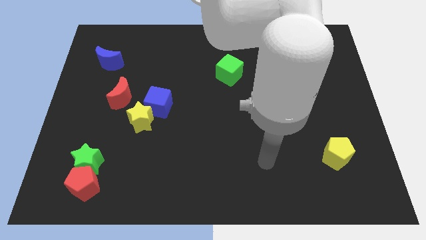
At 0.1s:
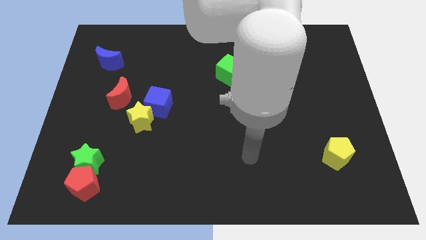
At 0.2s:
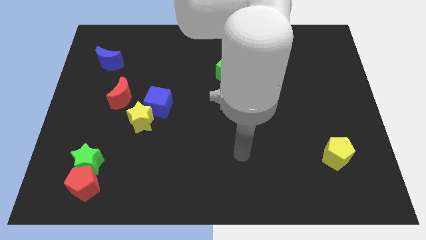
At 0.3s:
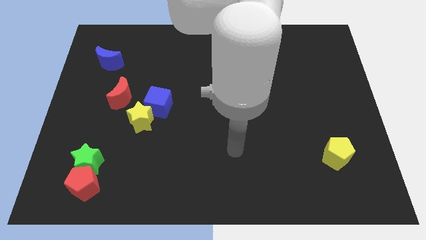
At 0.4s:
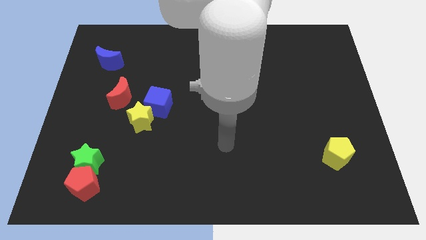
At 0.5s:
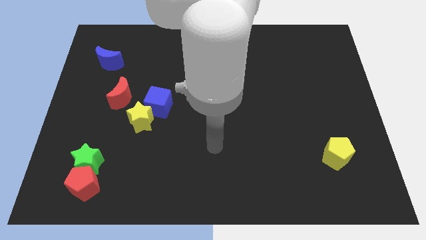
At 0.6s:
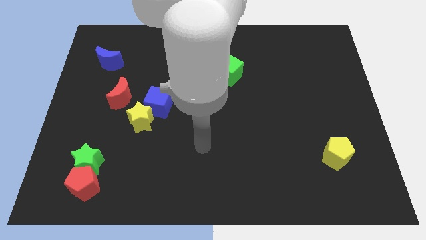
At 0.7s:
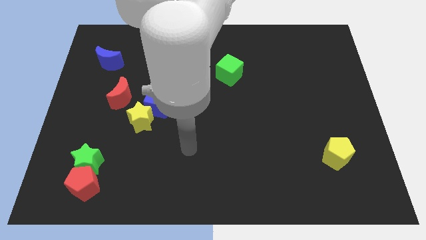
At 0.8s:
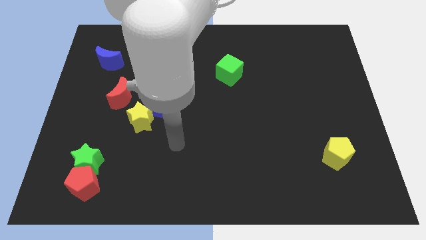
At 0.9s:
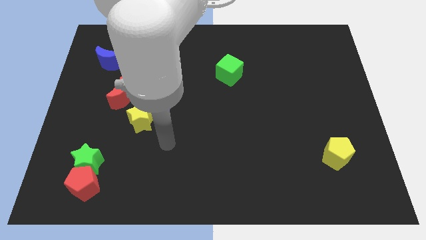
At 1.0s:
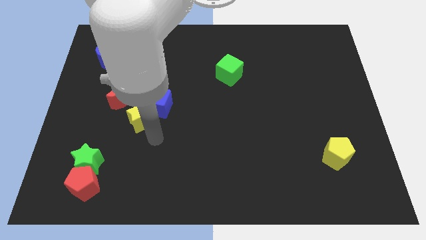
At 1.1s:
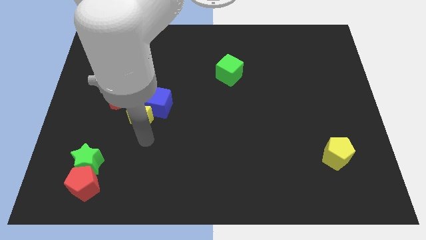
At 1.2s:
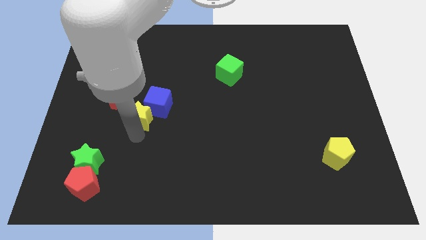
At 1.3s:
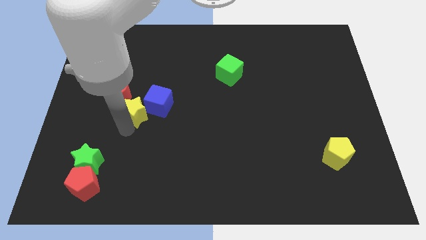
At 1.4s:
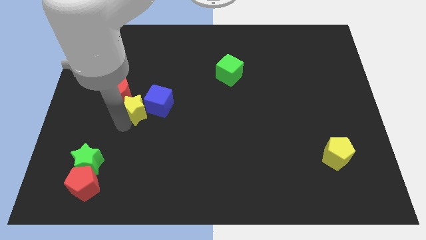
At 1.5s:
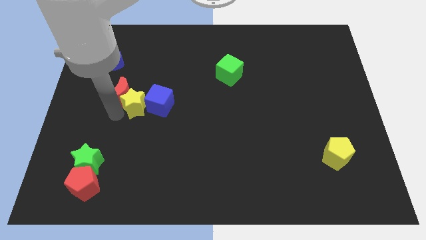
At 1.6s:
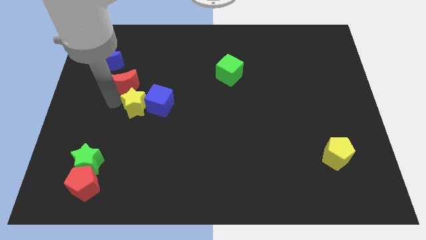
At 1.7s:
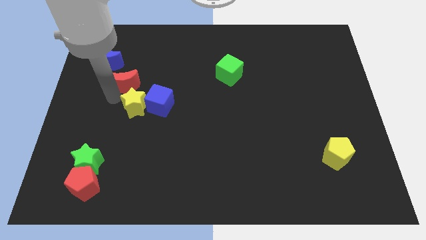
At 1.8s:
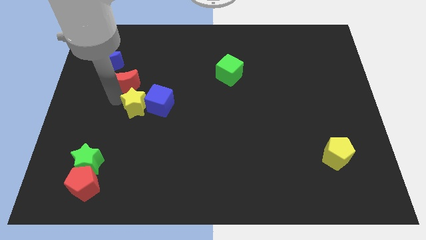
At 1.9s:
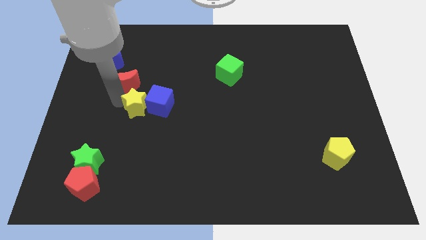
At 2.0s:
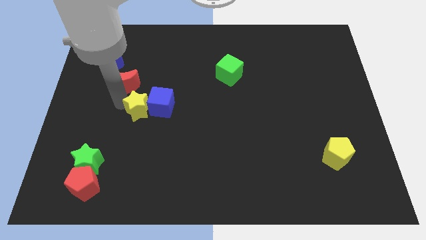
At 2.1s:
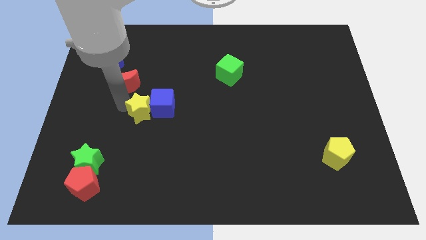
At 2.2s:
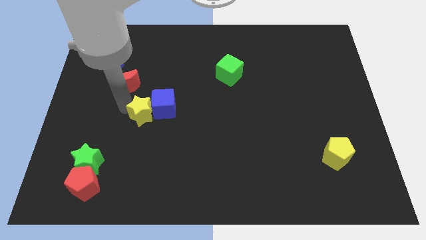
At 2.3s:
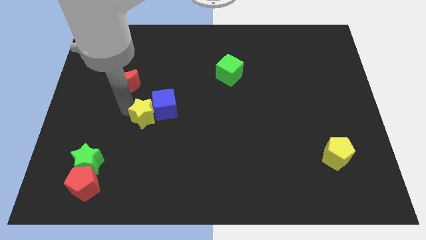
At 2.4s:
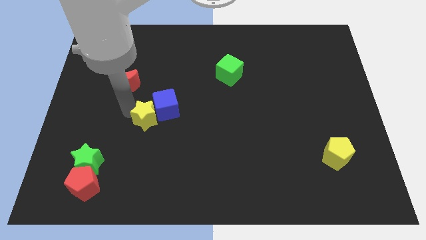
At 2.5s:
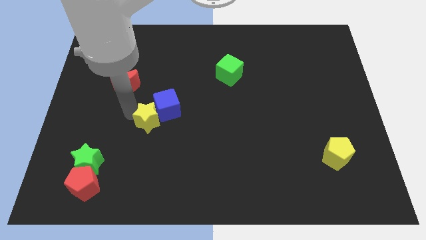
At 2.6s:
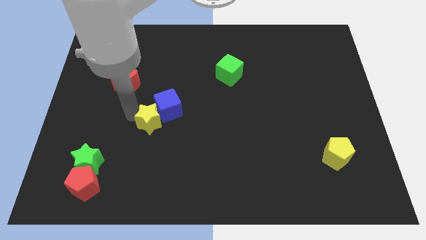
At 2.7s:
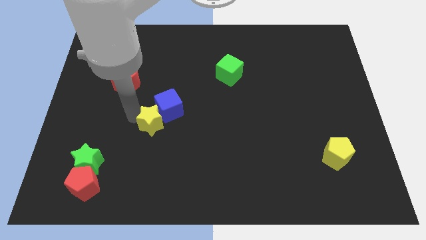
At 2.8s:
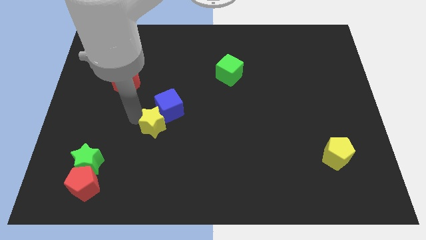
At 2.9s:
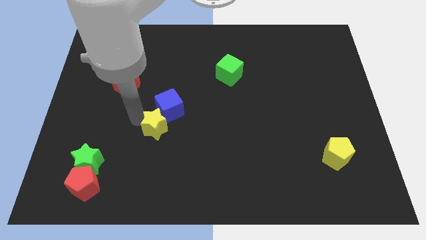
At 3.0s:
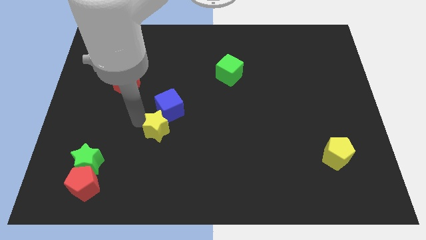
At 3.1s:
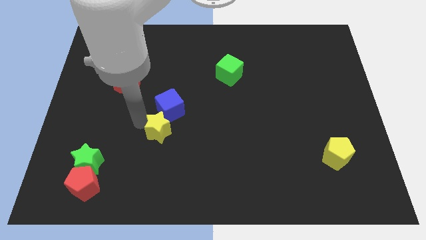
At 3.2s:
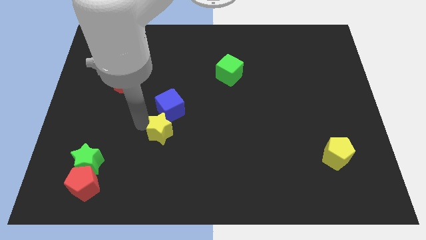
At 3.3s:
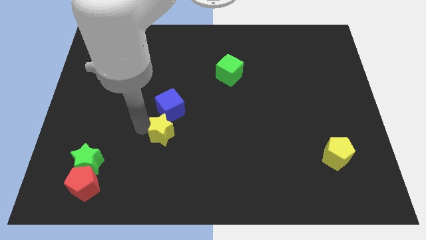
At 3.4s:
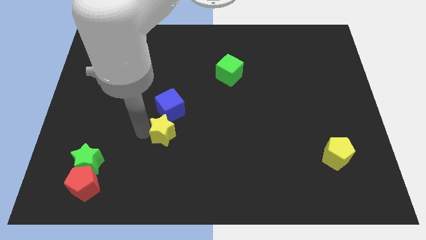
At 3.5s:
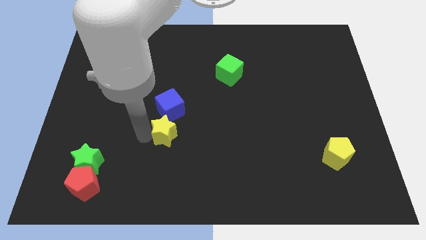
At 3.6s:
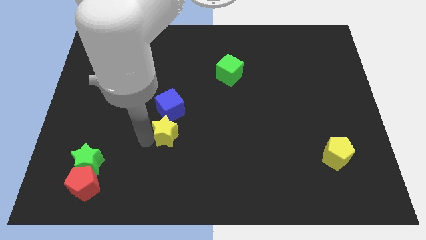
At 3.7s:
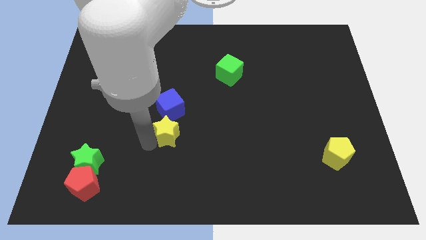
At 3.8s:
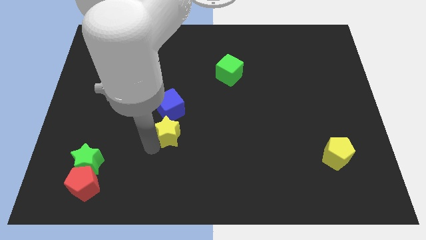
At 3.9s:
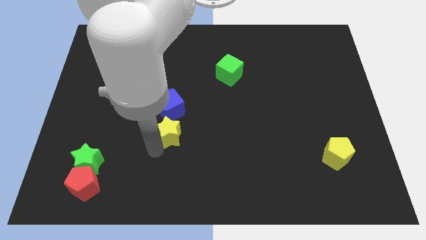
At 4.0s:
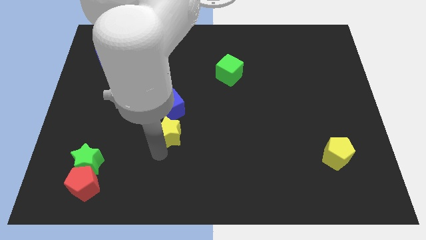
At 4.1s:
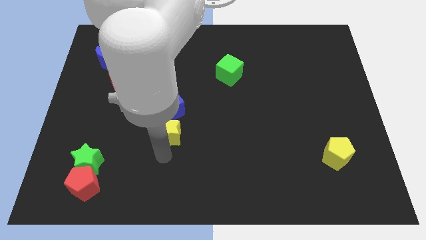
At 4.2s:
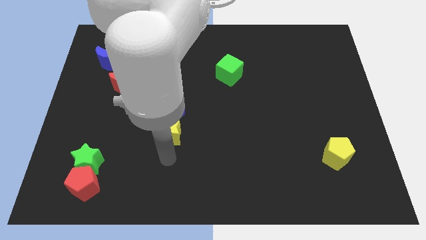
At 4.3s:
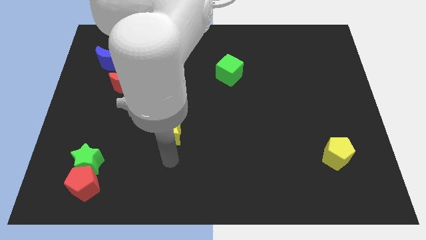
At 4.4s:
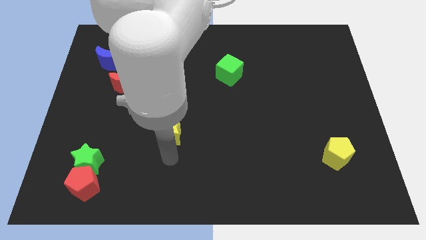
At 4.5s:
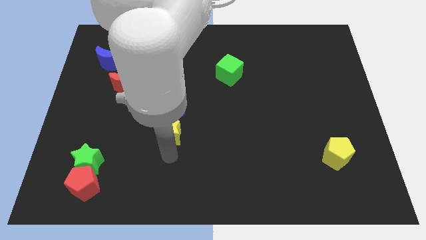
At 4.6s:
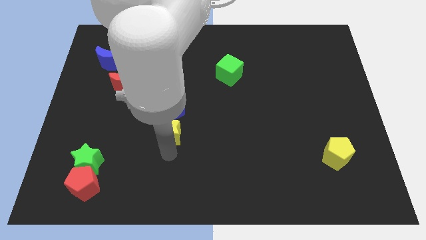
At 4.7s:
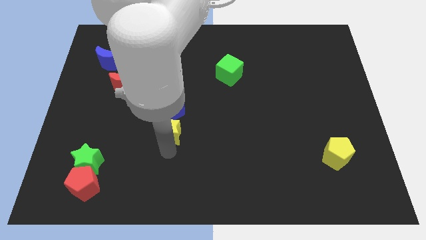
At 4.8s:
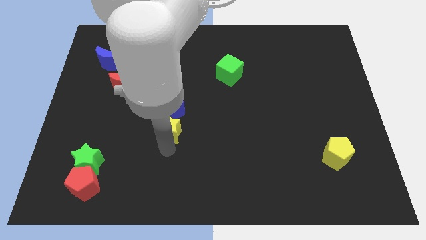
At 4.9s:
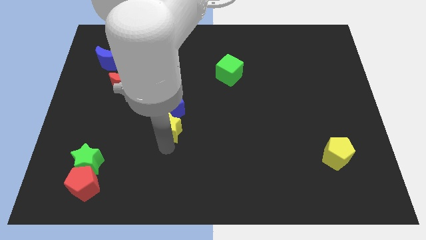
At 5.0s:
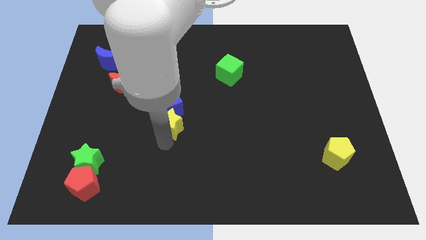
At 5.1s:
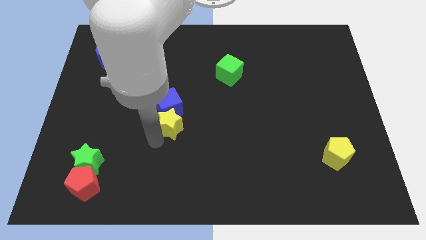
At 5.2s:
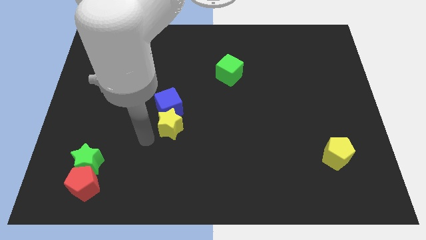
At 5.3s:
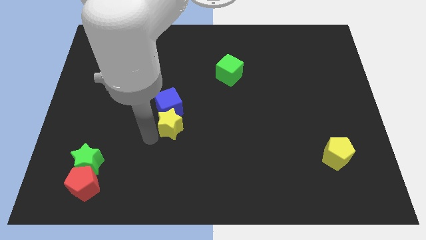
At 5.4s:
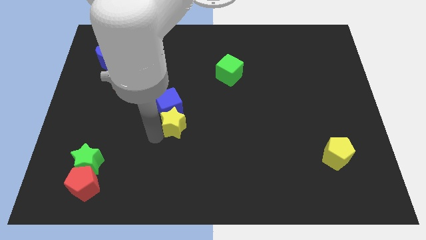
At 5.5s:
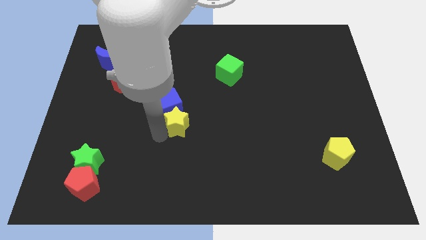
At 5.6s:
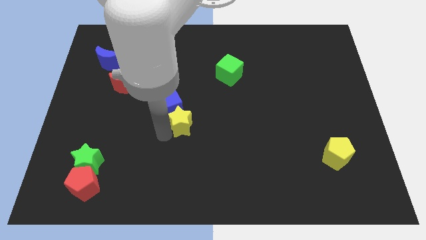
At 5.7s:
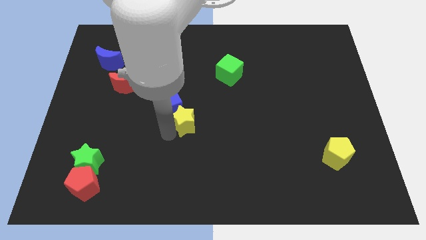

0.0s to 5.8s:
slide the yellow star right of the blue cube

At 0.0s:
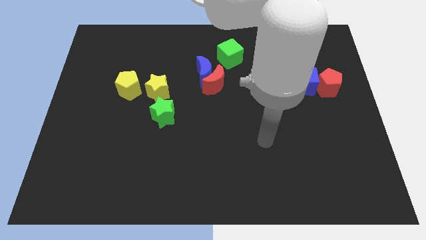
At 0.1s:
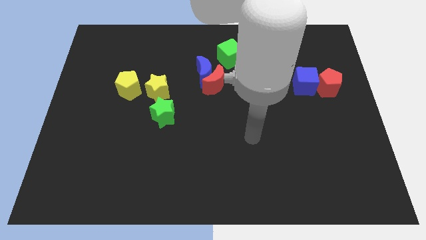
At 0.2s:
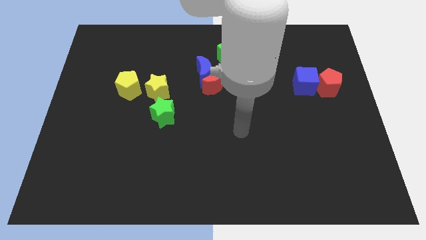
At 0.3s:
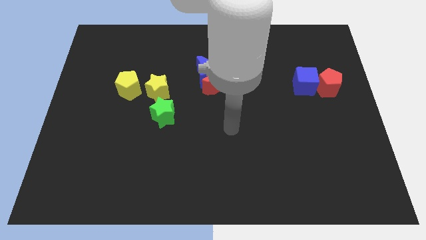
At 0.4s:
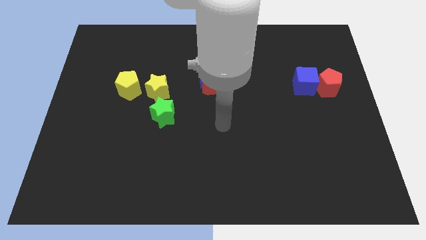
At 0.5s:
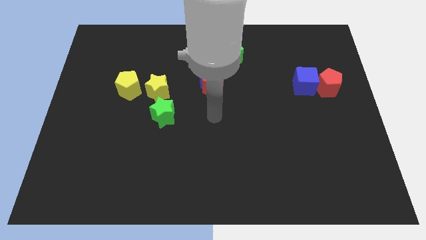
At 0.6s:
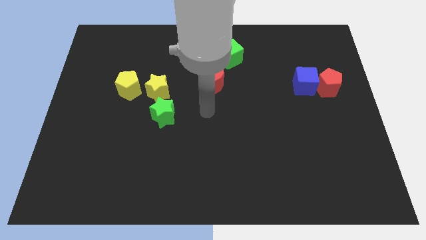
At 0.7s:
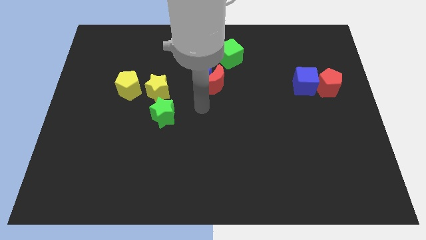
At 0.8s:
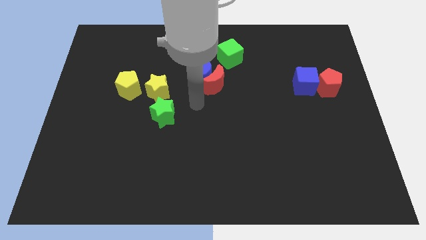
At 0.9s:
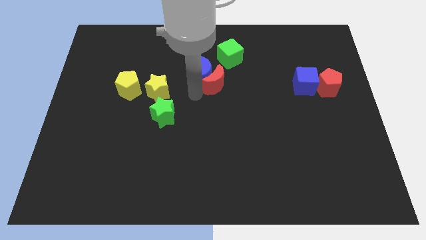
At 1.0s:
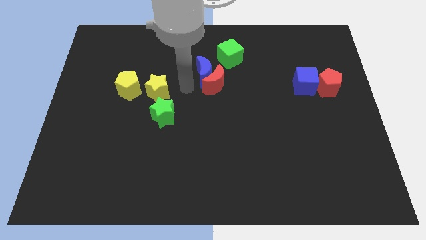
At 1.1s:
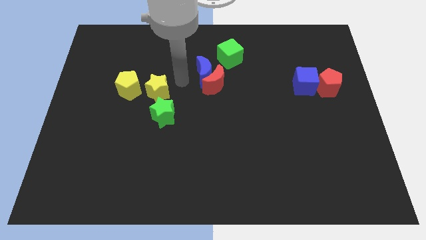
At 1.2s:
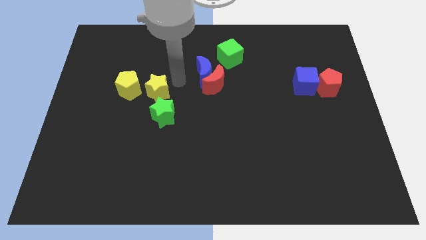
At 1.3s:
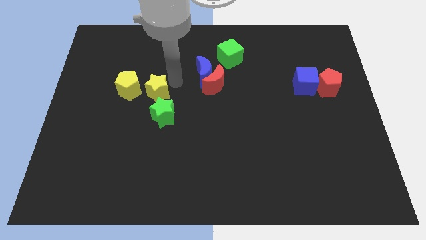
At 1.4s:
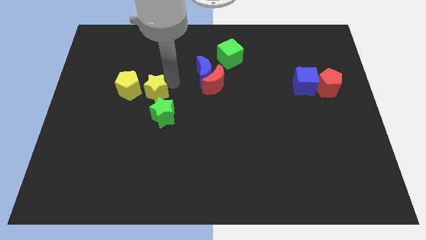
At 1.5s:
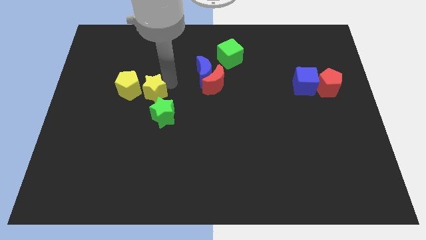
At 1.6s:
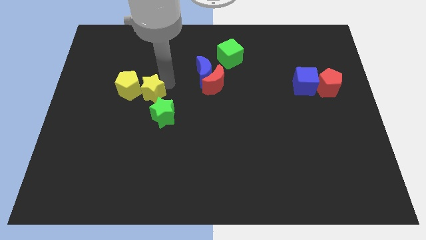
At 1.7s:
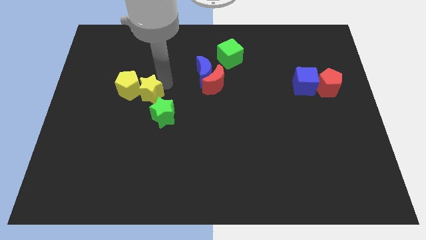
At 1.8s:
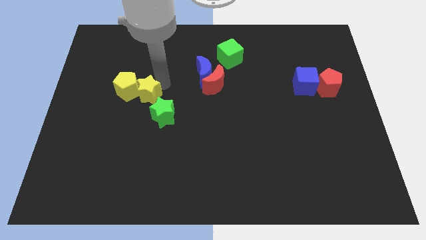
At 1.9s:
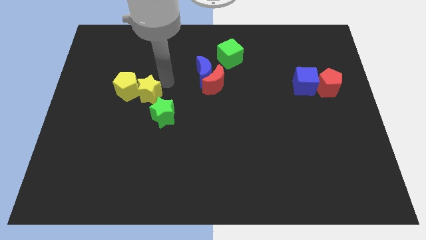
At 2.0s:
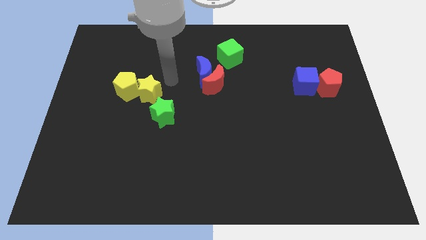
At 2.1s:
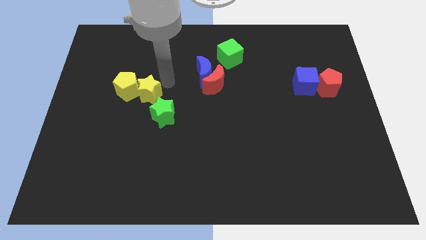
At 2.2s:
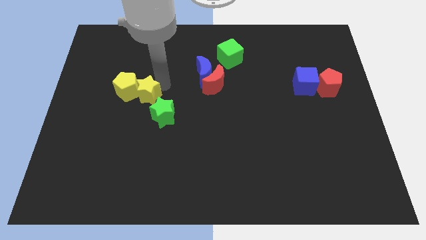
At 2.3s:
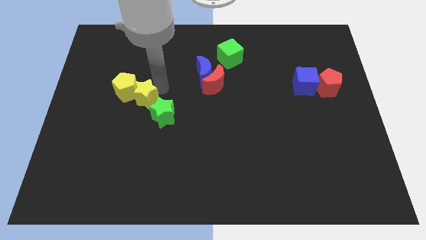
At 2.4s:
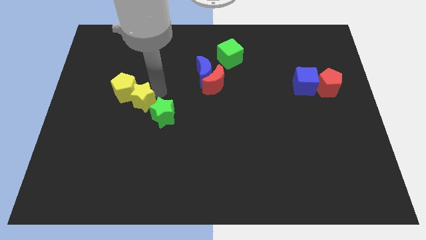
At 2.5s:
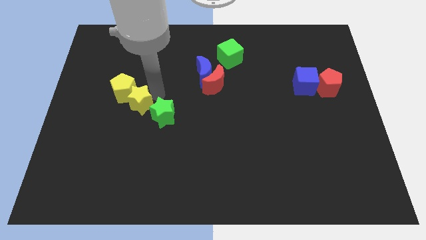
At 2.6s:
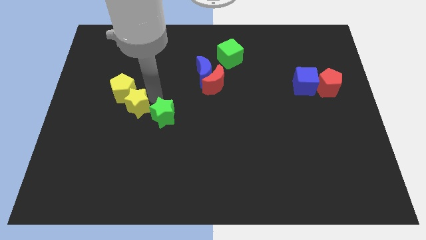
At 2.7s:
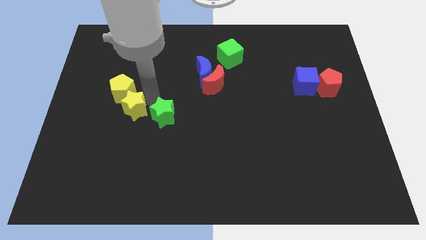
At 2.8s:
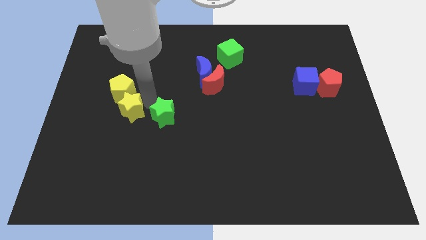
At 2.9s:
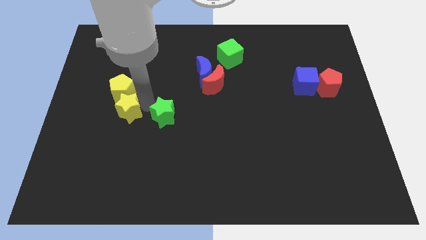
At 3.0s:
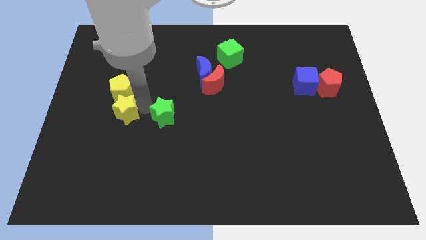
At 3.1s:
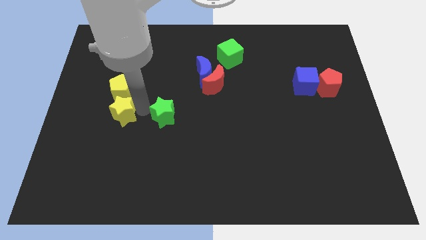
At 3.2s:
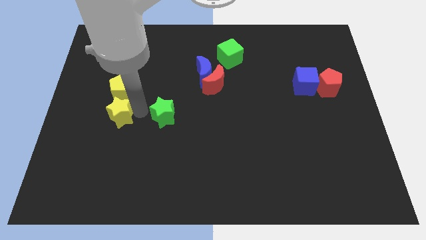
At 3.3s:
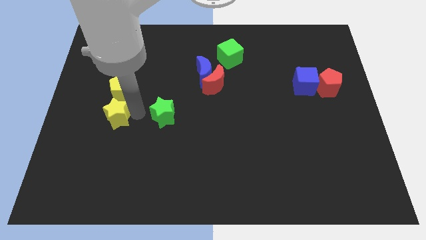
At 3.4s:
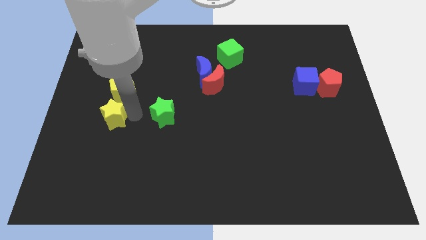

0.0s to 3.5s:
put the yellow star to the bottom left side of the yellow pentagon
